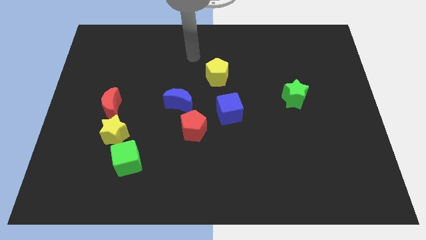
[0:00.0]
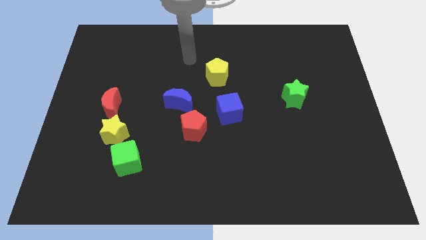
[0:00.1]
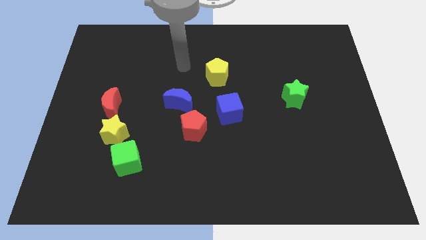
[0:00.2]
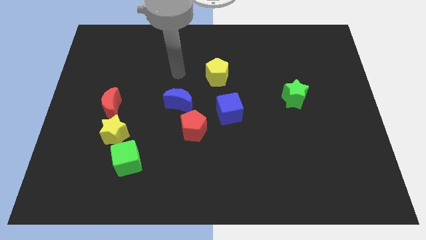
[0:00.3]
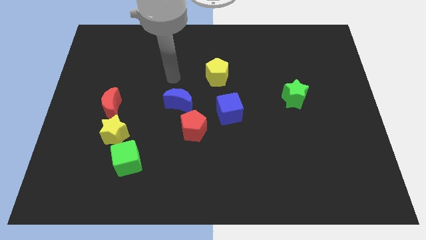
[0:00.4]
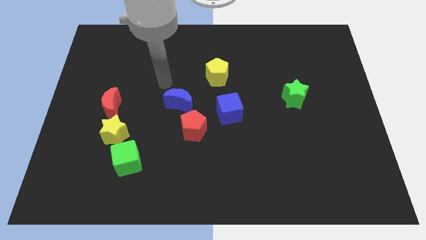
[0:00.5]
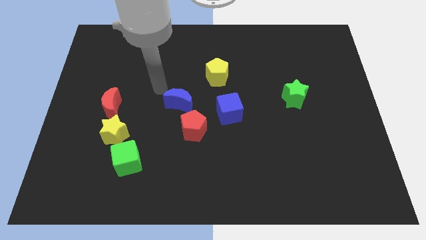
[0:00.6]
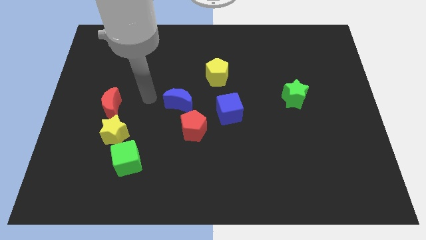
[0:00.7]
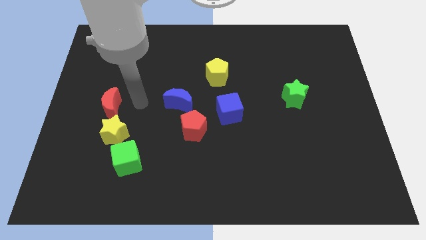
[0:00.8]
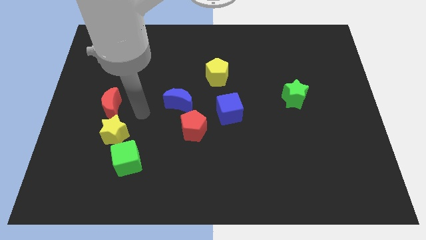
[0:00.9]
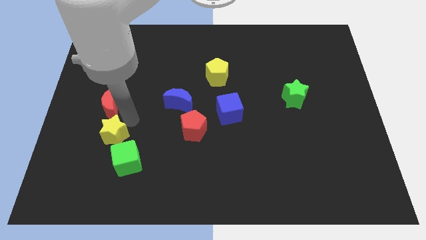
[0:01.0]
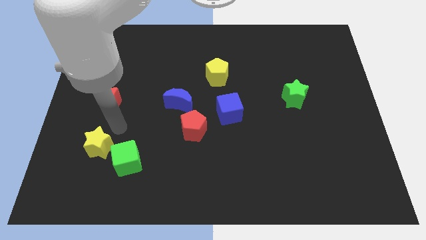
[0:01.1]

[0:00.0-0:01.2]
pull the red moon apart from the yellow star

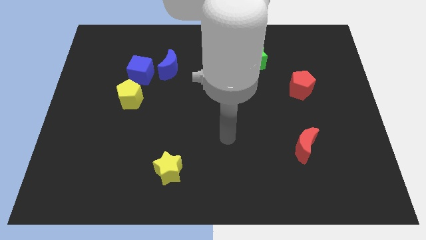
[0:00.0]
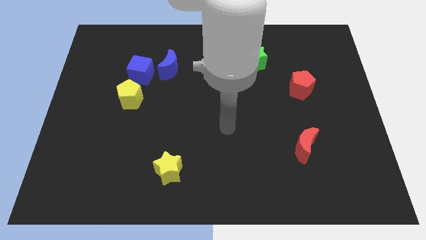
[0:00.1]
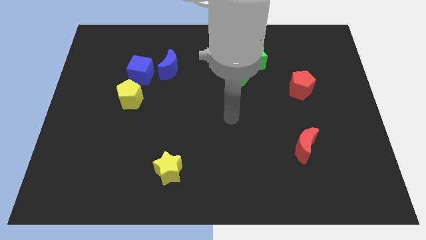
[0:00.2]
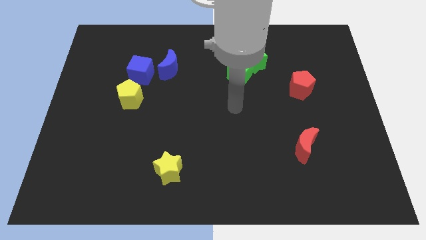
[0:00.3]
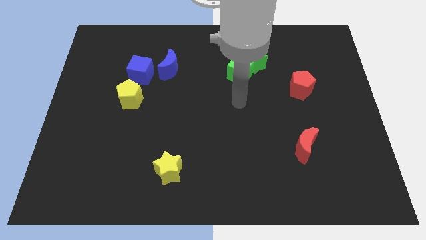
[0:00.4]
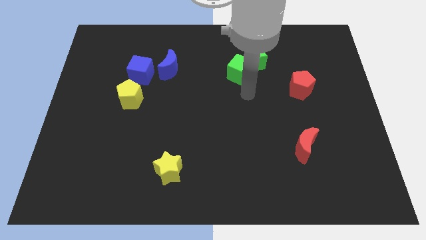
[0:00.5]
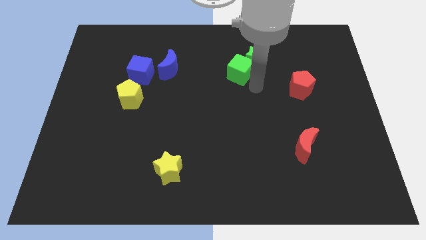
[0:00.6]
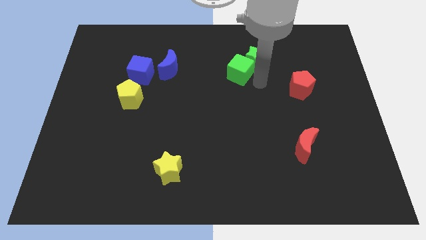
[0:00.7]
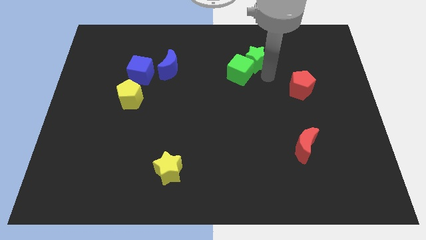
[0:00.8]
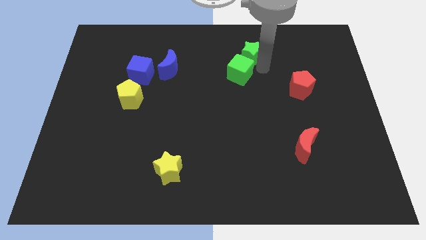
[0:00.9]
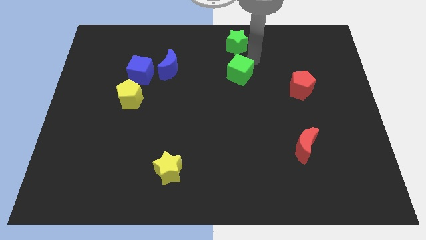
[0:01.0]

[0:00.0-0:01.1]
pull the green cube apart from the green star

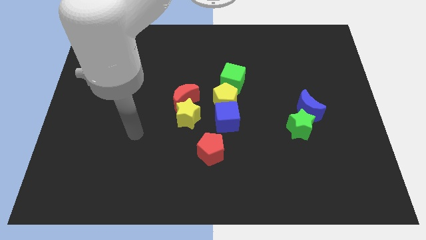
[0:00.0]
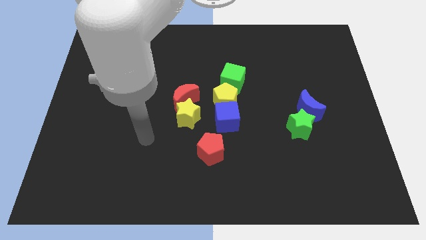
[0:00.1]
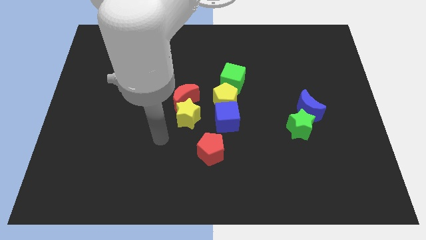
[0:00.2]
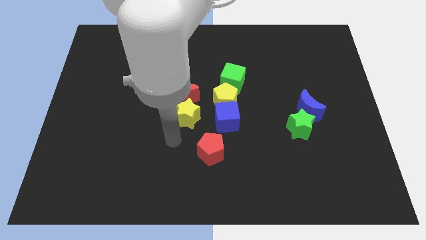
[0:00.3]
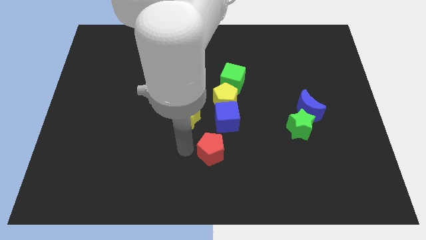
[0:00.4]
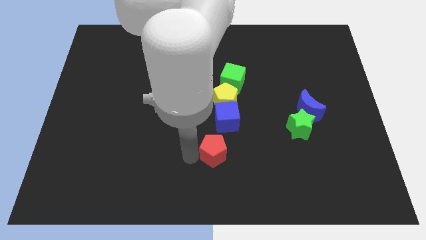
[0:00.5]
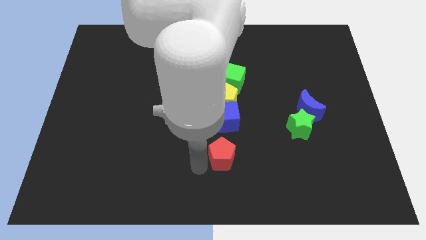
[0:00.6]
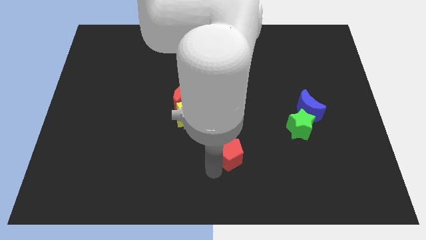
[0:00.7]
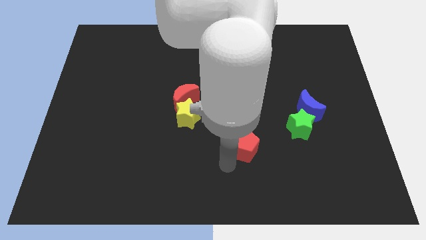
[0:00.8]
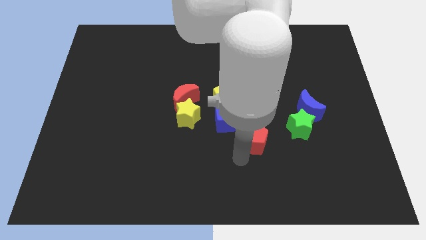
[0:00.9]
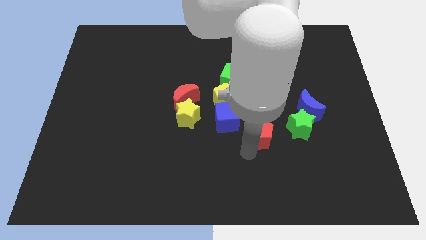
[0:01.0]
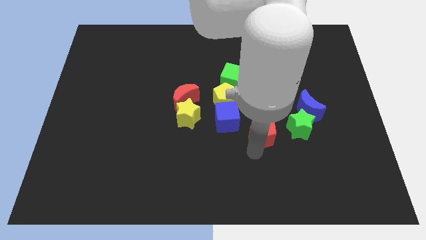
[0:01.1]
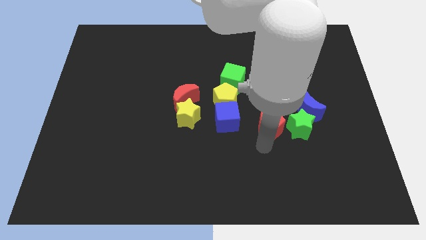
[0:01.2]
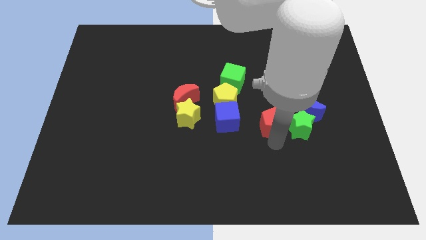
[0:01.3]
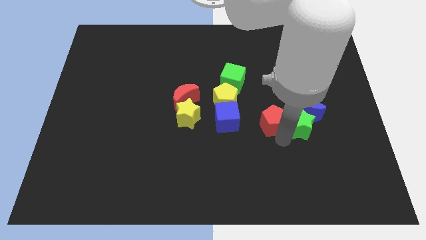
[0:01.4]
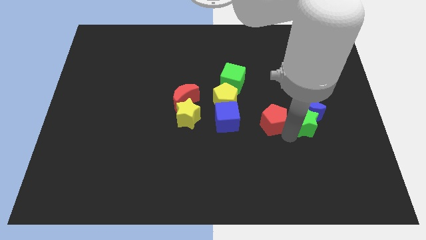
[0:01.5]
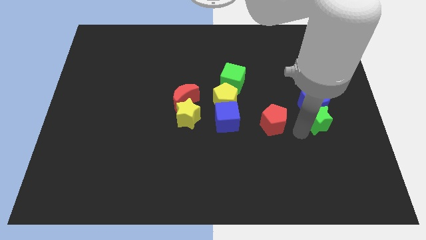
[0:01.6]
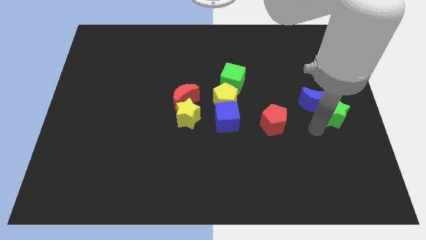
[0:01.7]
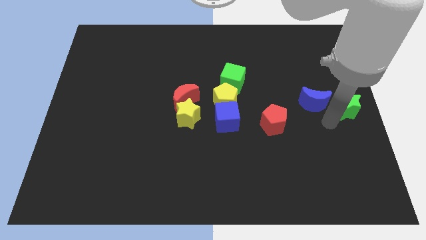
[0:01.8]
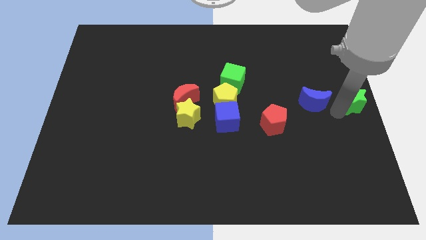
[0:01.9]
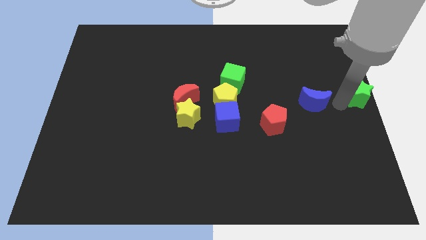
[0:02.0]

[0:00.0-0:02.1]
separate the blue moon from the green star

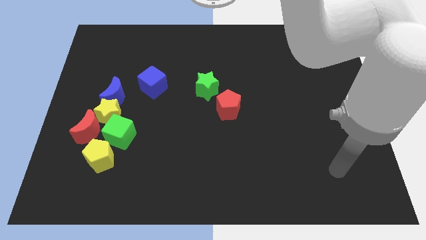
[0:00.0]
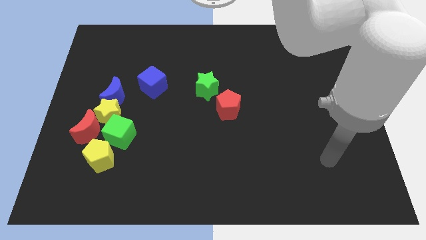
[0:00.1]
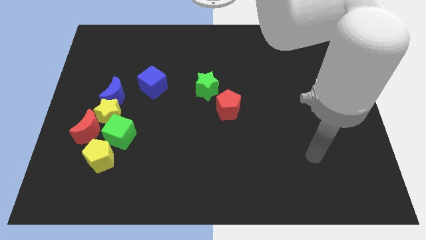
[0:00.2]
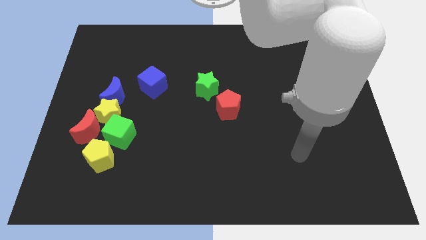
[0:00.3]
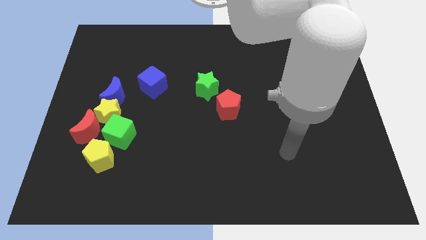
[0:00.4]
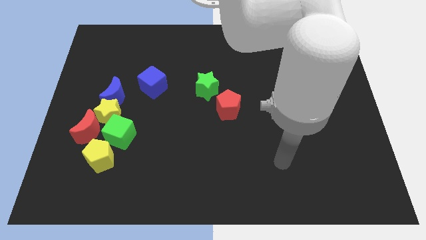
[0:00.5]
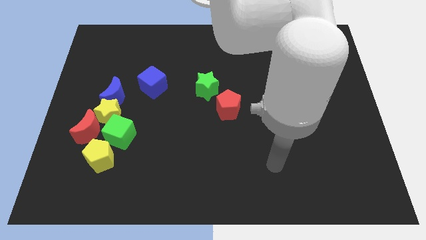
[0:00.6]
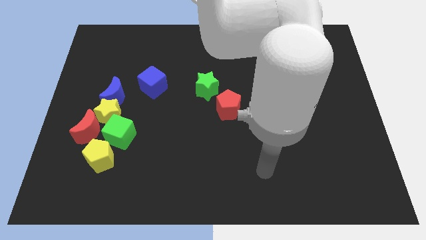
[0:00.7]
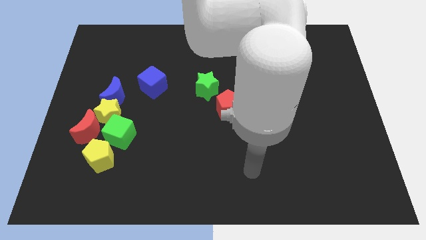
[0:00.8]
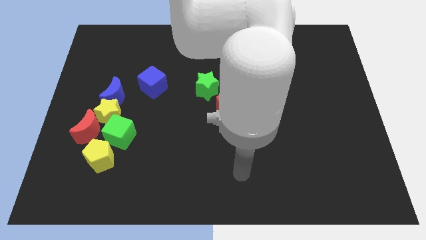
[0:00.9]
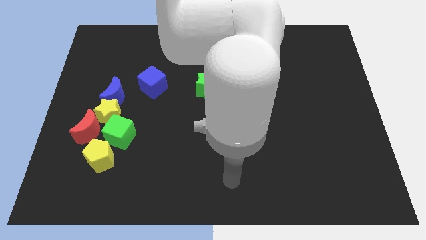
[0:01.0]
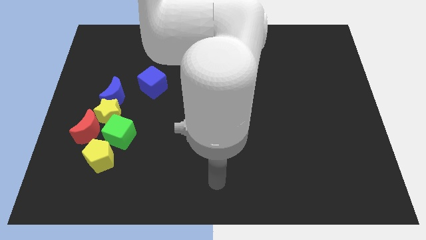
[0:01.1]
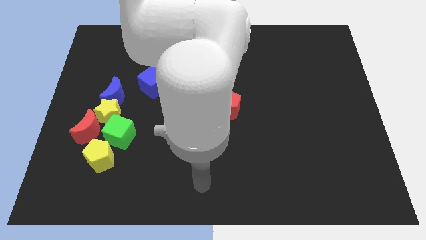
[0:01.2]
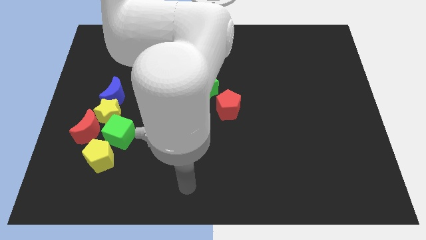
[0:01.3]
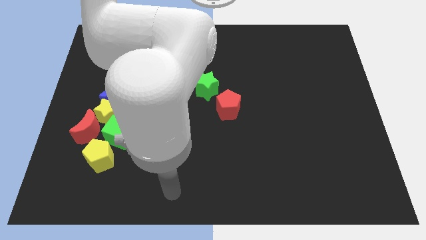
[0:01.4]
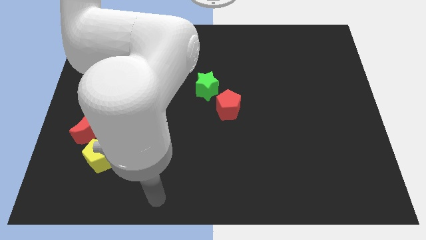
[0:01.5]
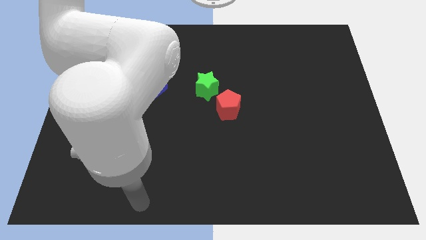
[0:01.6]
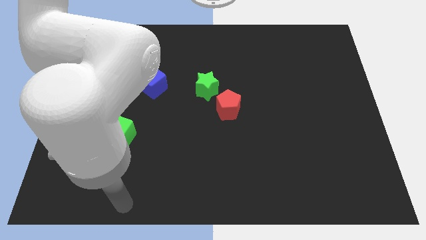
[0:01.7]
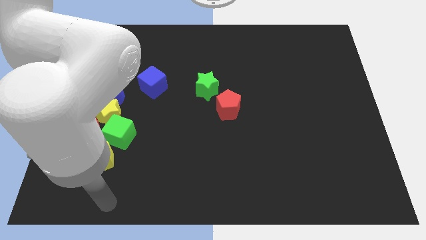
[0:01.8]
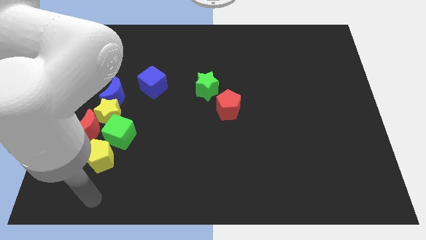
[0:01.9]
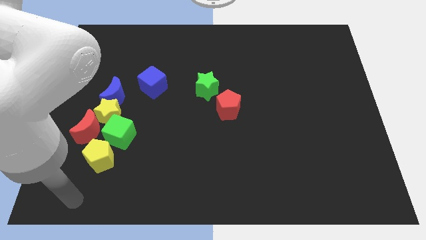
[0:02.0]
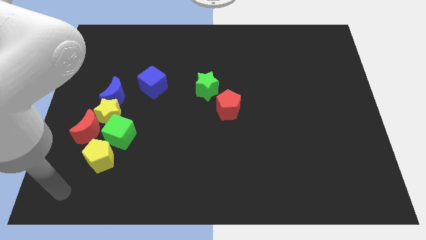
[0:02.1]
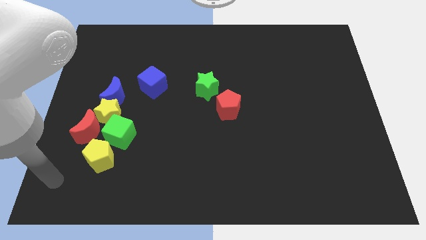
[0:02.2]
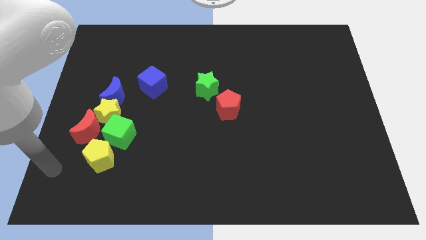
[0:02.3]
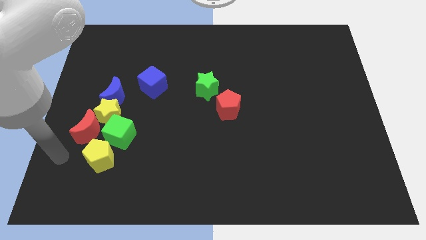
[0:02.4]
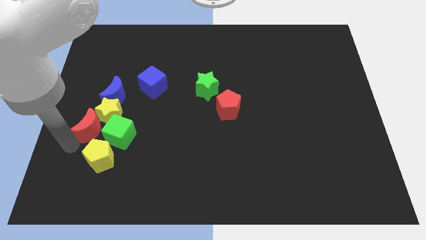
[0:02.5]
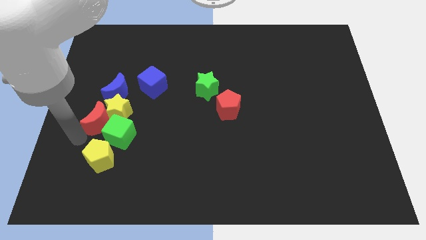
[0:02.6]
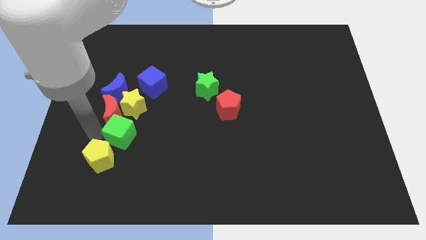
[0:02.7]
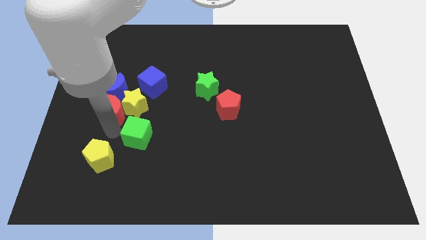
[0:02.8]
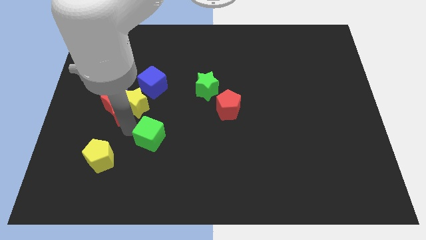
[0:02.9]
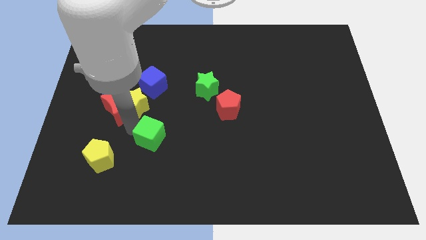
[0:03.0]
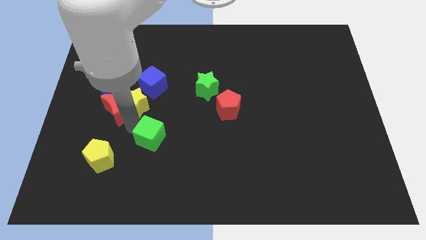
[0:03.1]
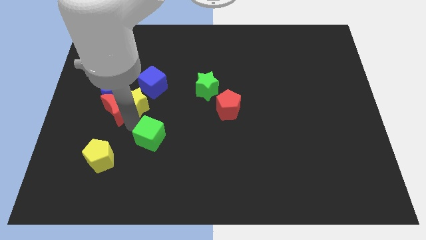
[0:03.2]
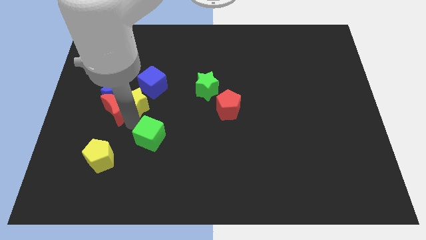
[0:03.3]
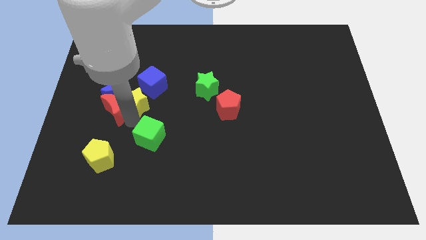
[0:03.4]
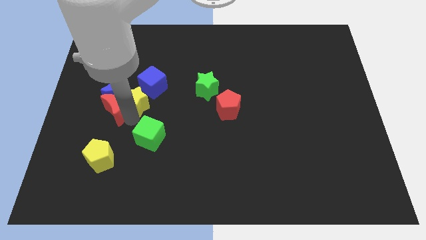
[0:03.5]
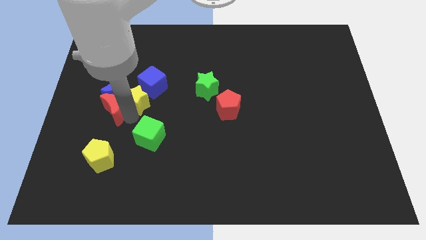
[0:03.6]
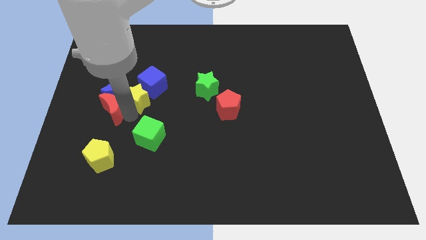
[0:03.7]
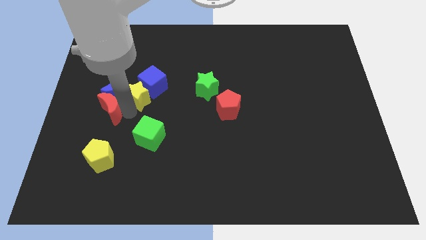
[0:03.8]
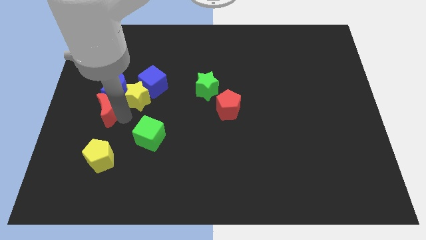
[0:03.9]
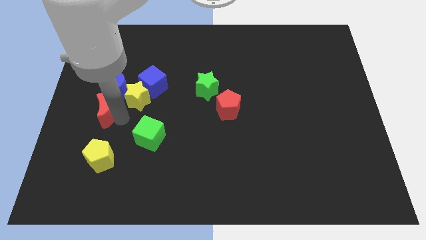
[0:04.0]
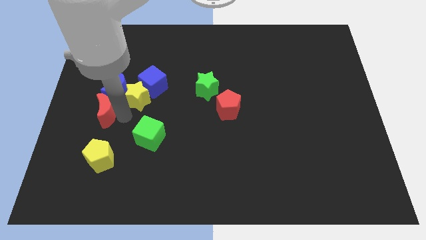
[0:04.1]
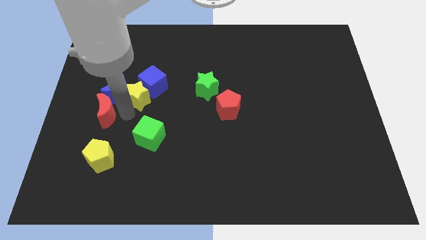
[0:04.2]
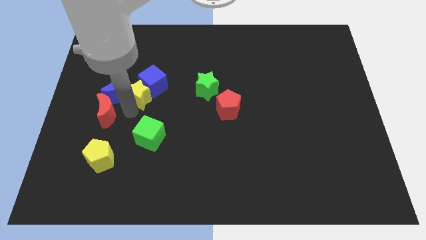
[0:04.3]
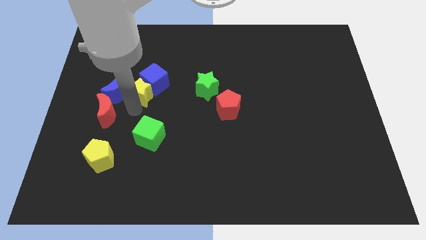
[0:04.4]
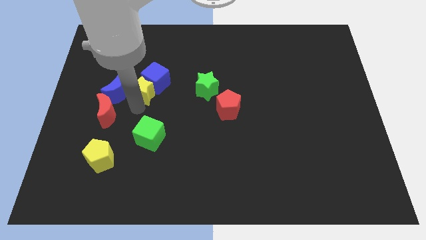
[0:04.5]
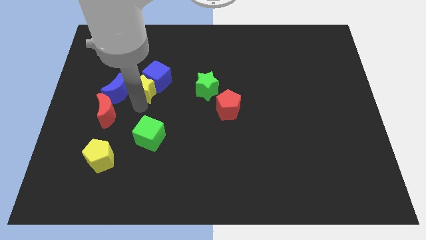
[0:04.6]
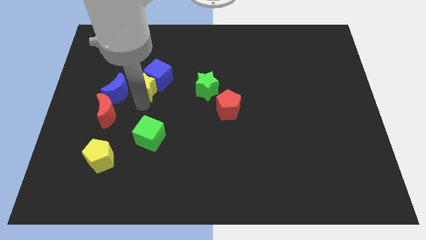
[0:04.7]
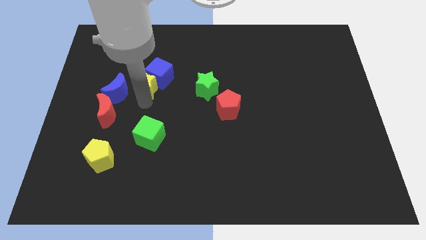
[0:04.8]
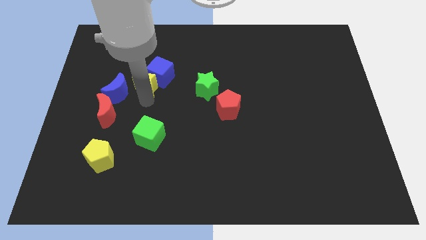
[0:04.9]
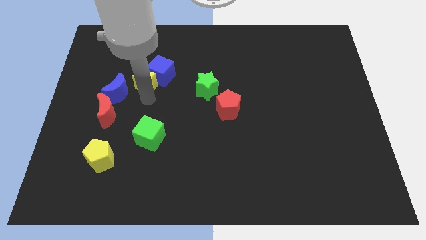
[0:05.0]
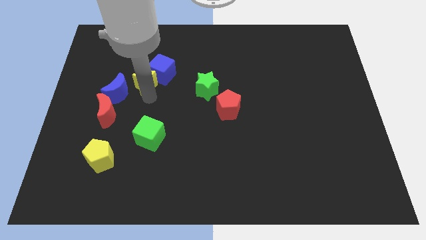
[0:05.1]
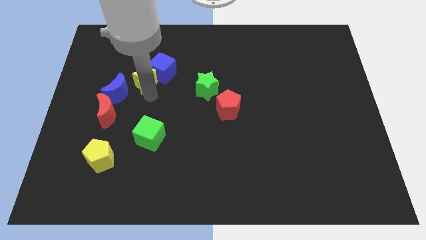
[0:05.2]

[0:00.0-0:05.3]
move the yellow star away from the red moon, blue moon, and green cube
